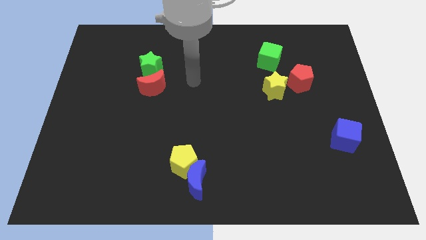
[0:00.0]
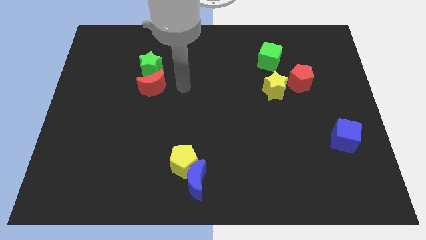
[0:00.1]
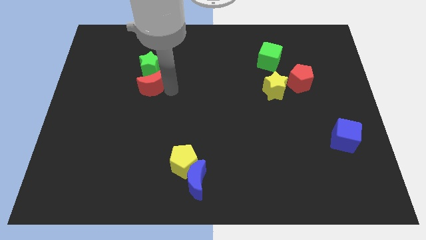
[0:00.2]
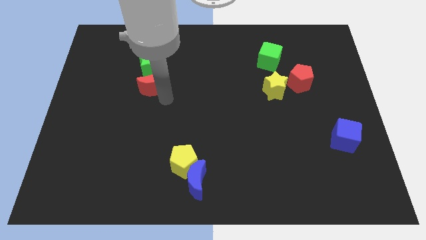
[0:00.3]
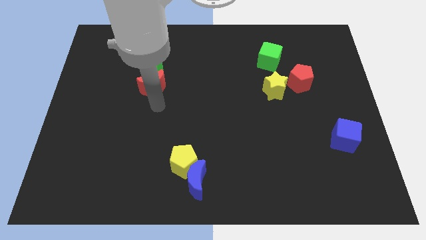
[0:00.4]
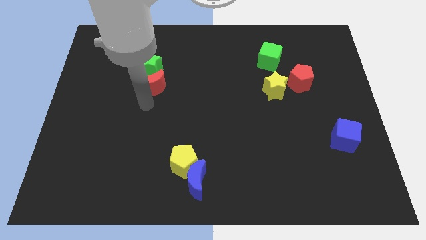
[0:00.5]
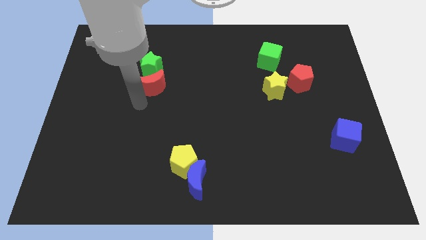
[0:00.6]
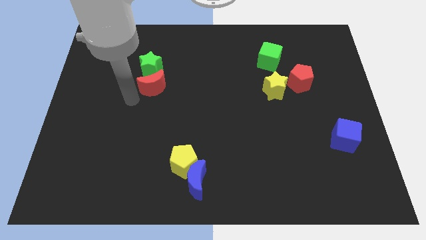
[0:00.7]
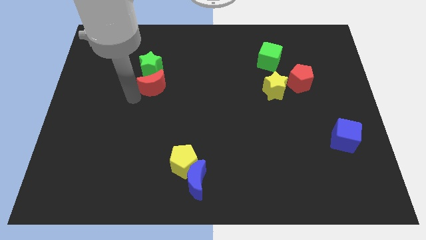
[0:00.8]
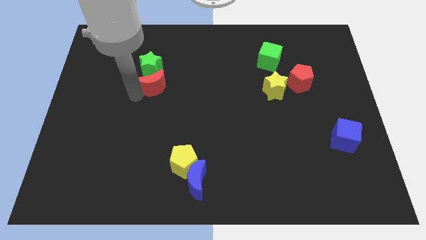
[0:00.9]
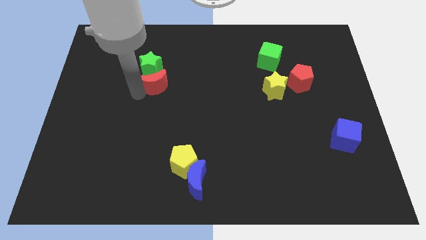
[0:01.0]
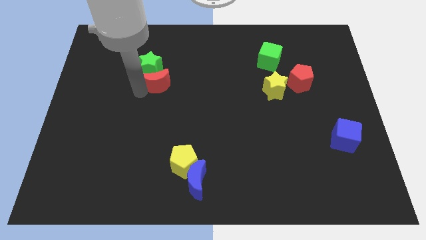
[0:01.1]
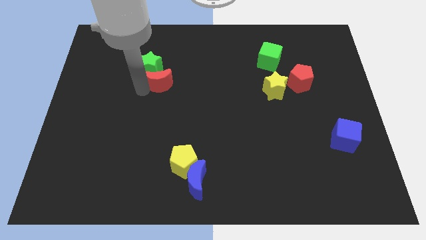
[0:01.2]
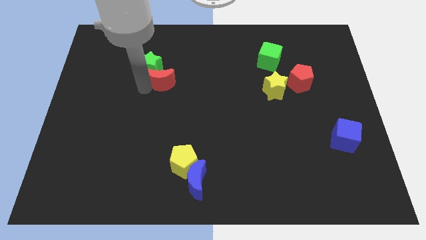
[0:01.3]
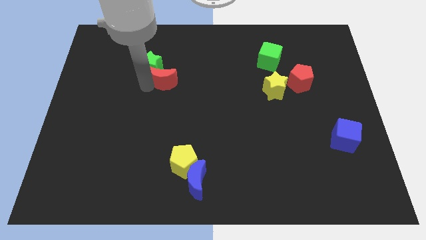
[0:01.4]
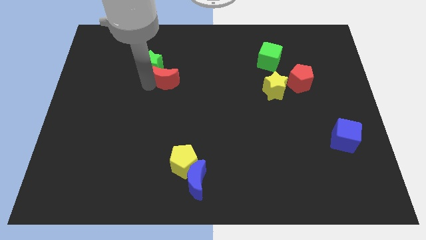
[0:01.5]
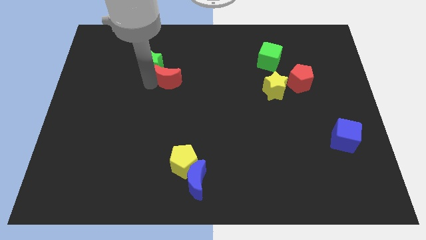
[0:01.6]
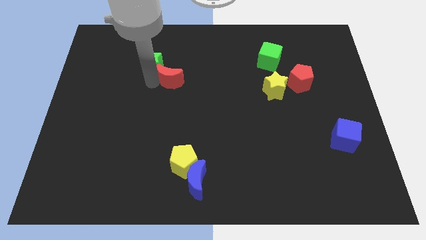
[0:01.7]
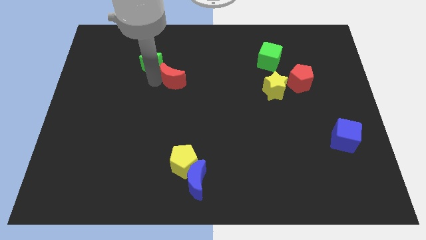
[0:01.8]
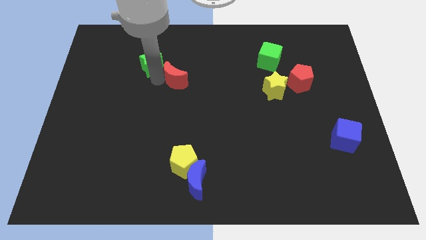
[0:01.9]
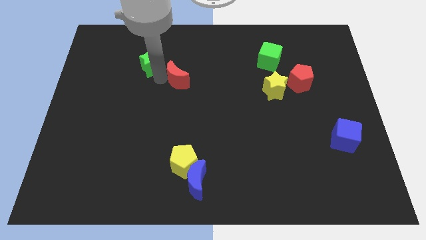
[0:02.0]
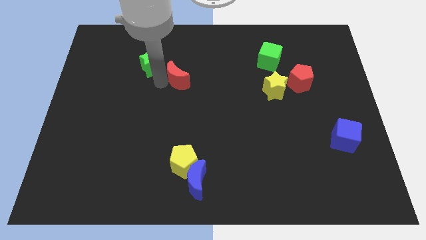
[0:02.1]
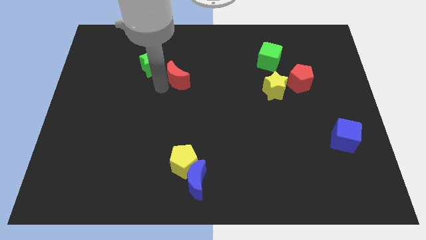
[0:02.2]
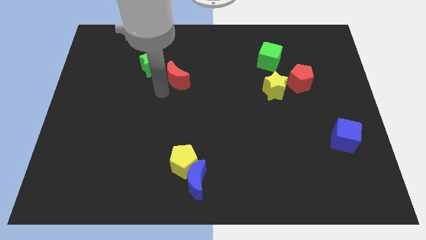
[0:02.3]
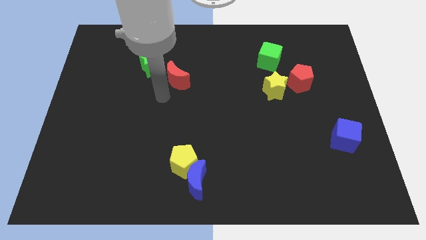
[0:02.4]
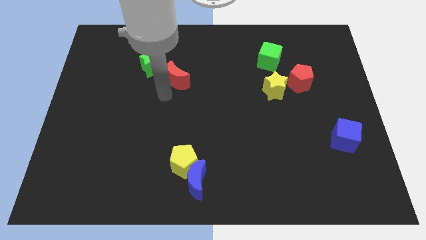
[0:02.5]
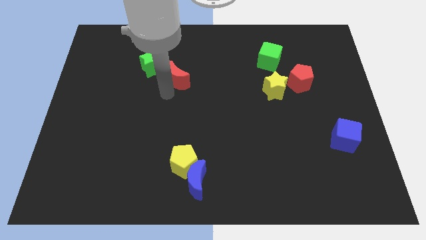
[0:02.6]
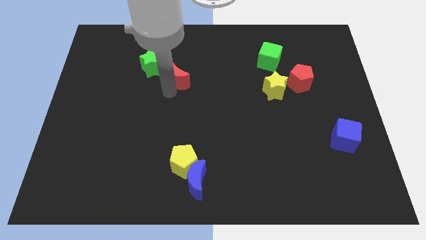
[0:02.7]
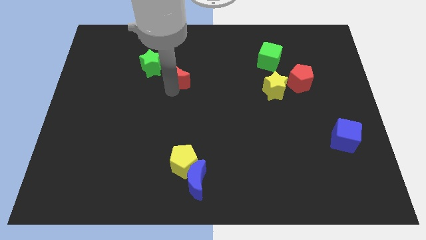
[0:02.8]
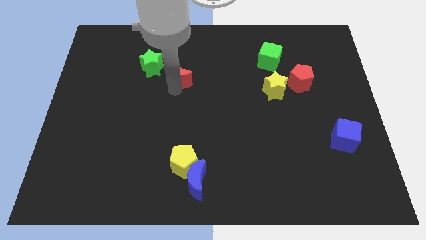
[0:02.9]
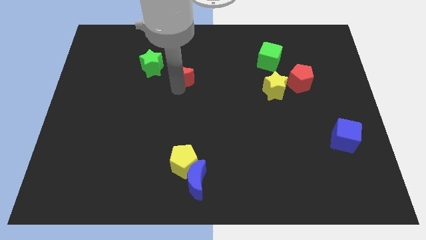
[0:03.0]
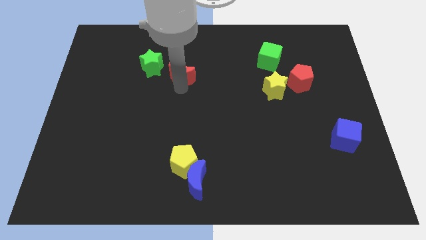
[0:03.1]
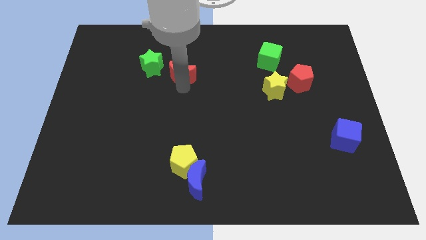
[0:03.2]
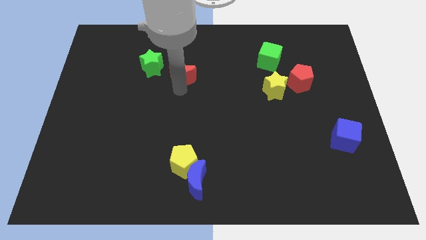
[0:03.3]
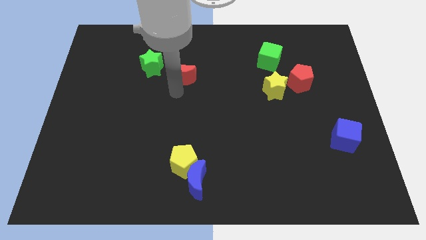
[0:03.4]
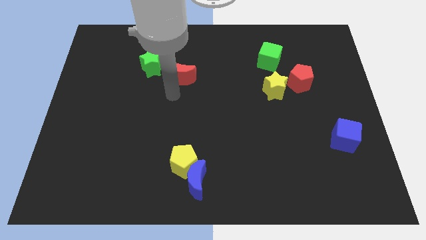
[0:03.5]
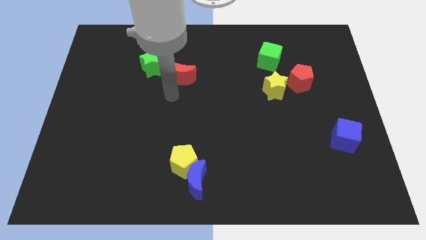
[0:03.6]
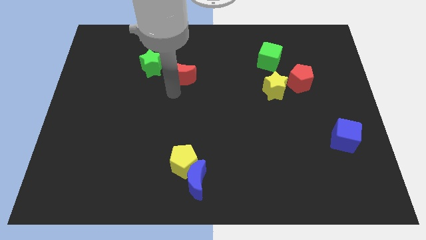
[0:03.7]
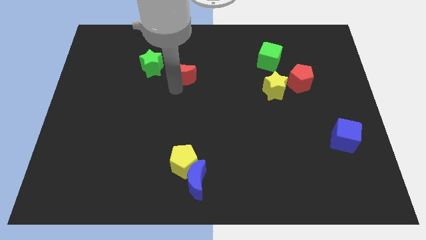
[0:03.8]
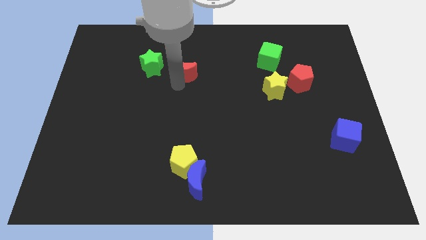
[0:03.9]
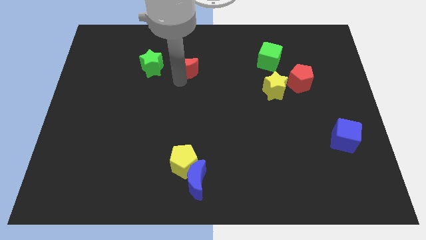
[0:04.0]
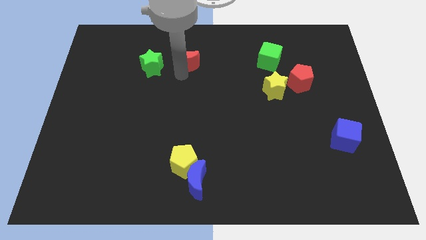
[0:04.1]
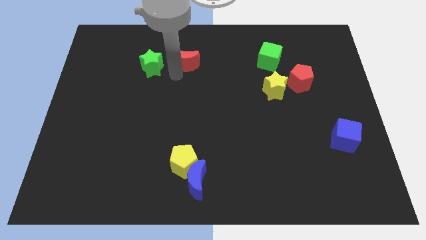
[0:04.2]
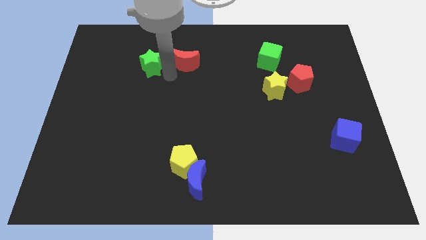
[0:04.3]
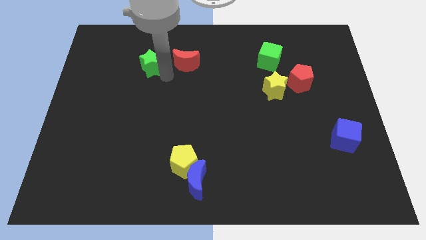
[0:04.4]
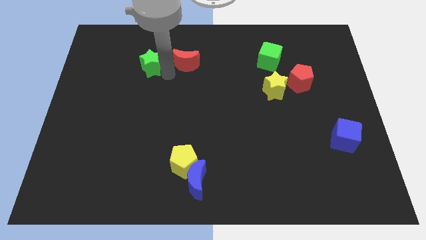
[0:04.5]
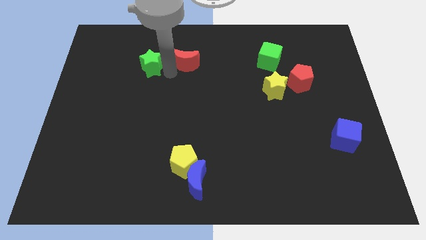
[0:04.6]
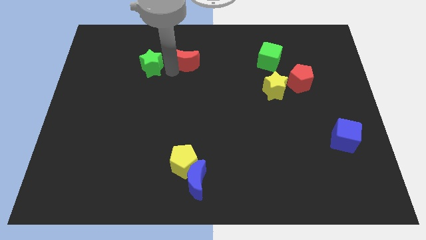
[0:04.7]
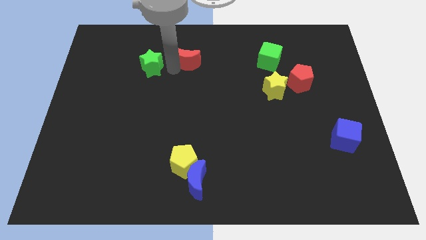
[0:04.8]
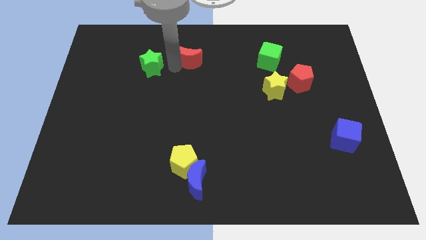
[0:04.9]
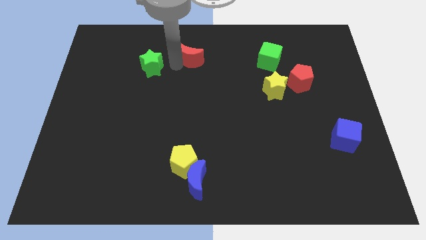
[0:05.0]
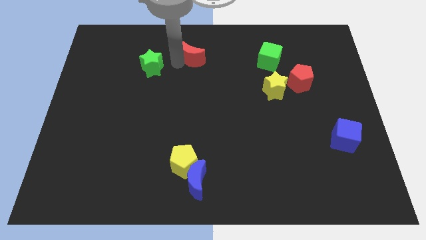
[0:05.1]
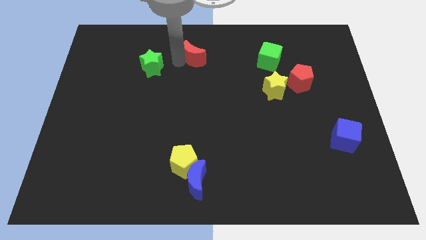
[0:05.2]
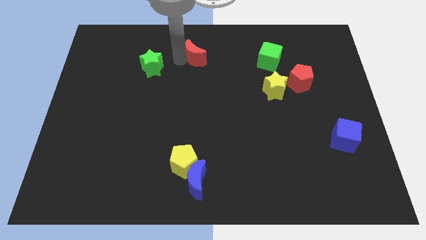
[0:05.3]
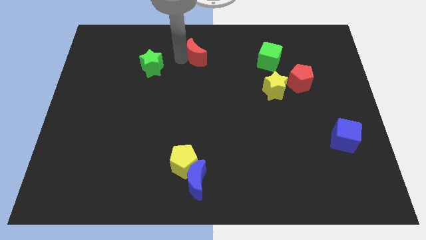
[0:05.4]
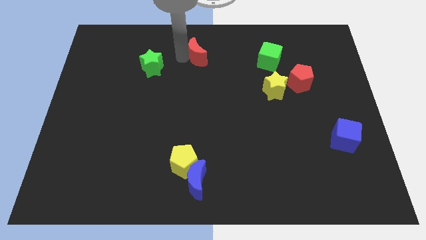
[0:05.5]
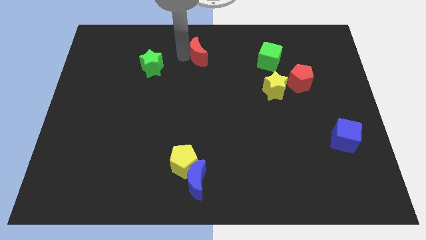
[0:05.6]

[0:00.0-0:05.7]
put the red moon to the towards your base

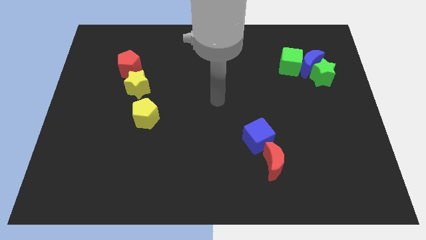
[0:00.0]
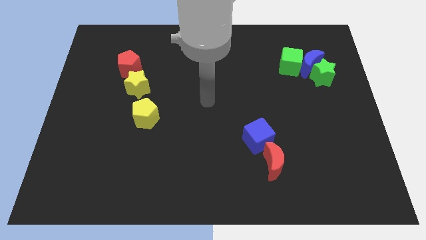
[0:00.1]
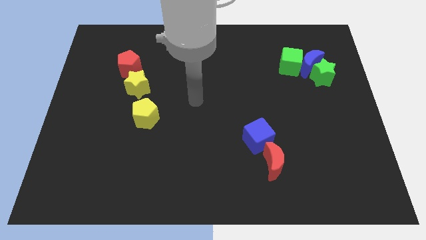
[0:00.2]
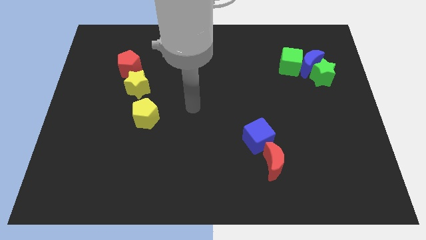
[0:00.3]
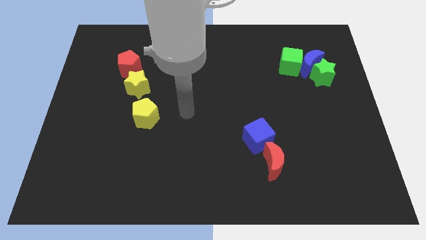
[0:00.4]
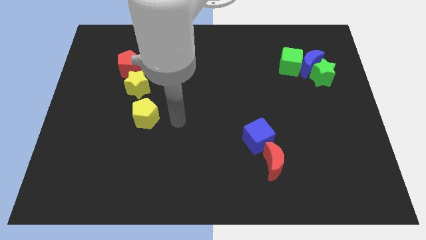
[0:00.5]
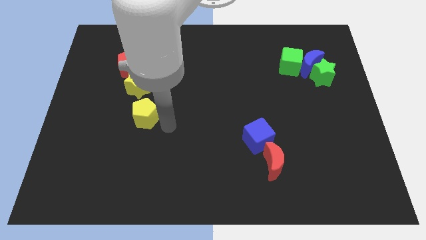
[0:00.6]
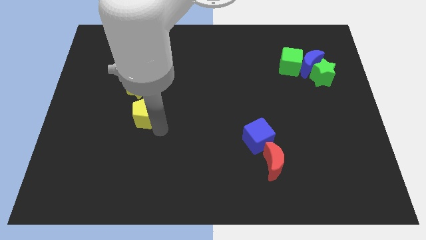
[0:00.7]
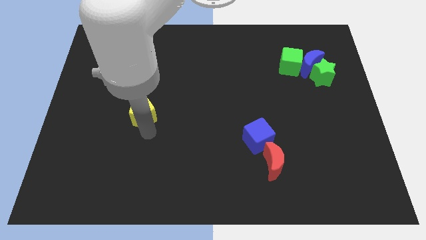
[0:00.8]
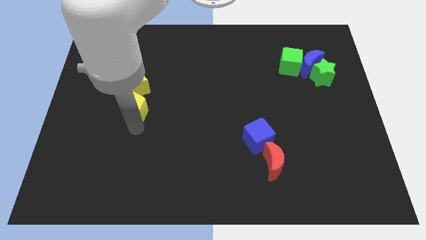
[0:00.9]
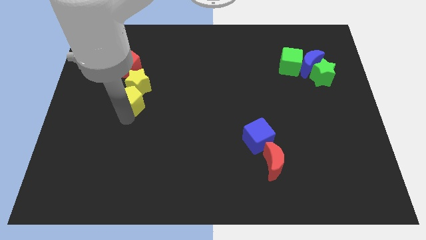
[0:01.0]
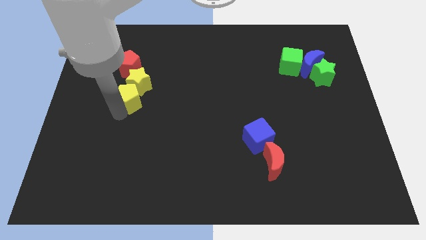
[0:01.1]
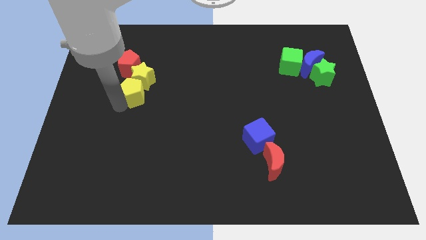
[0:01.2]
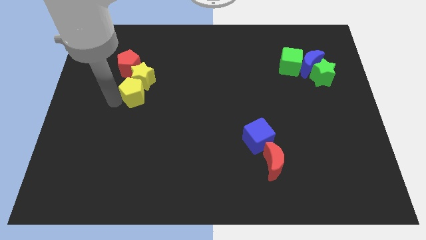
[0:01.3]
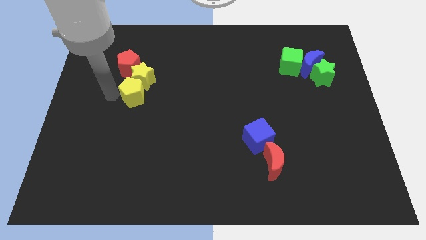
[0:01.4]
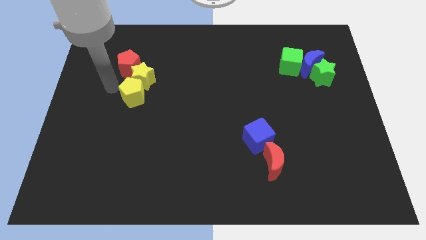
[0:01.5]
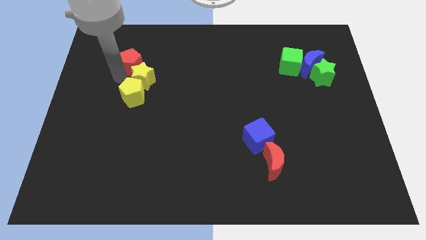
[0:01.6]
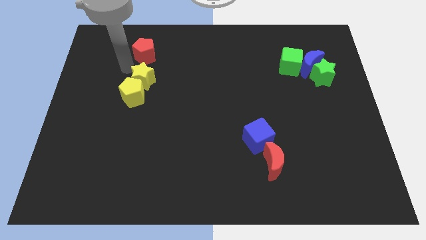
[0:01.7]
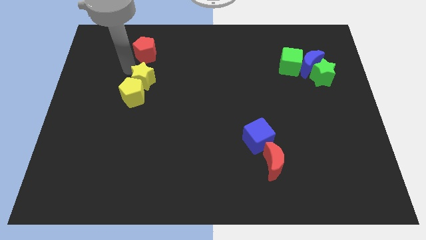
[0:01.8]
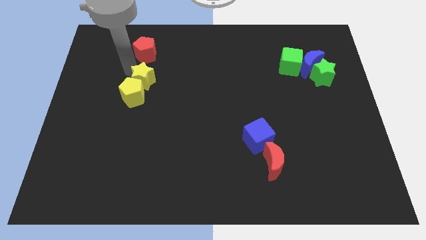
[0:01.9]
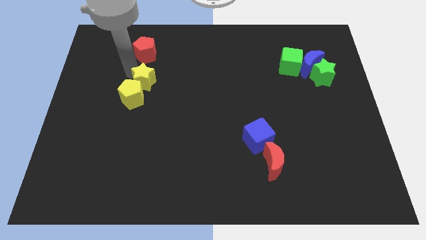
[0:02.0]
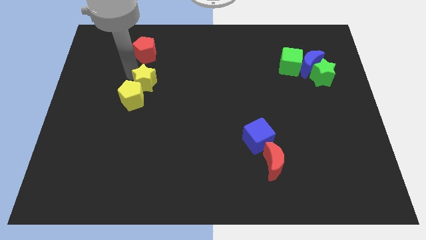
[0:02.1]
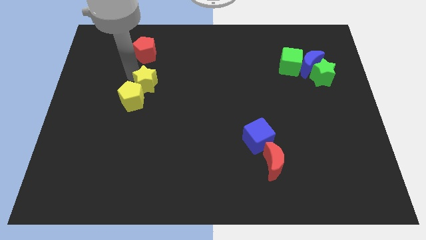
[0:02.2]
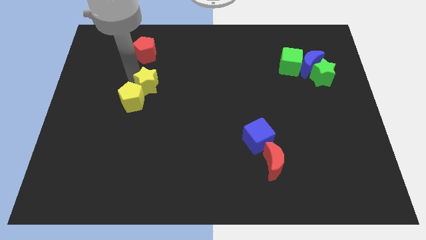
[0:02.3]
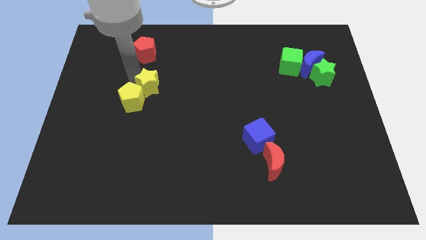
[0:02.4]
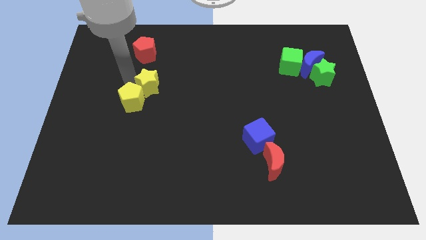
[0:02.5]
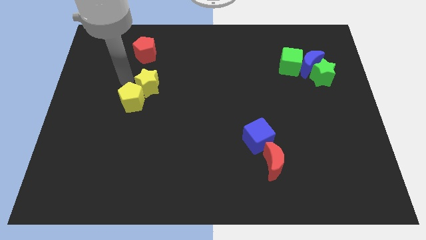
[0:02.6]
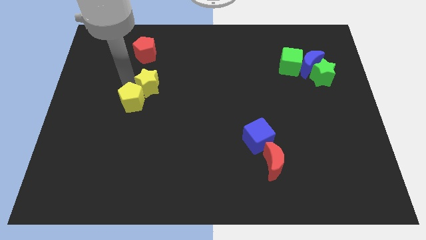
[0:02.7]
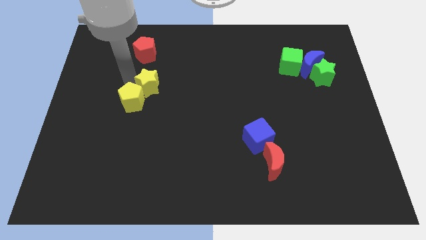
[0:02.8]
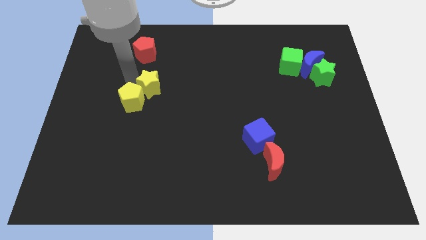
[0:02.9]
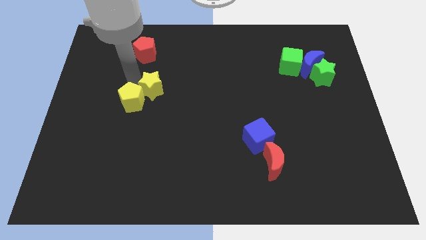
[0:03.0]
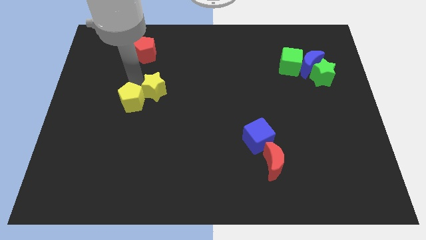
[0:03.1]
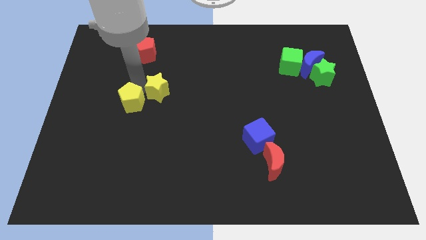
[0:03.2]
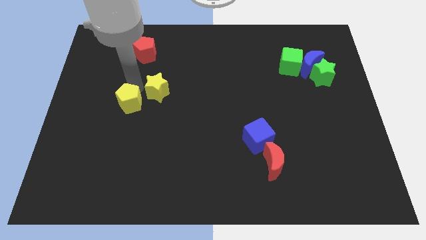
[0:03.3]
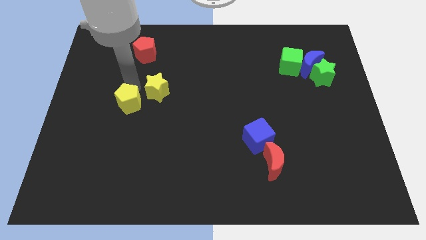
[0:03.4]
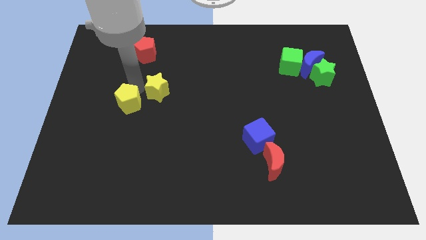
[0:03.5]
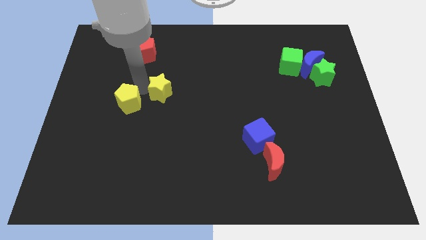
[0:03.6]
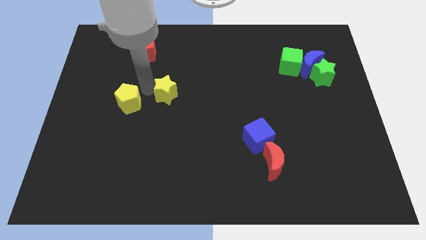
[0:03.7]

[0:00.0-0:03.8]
push the yellow star to the middle
